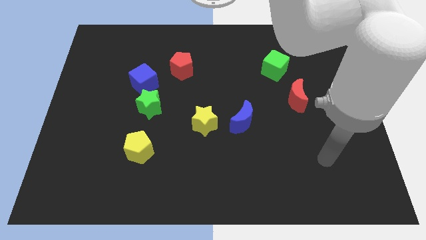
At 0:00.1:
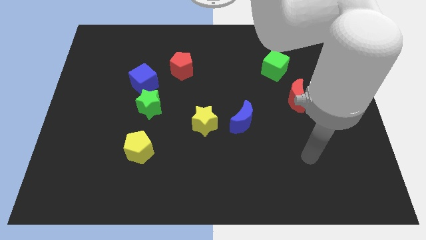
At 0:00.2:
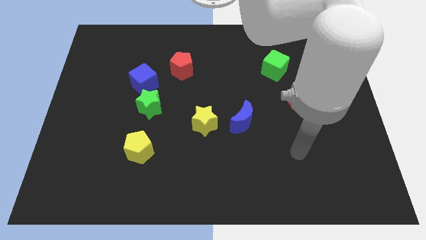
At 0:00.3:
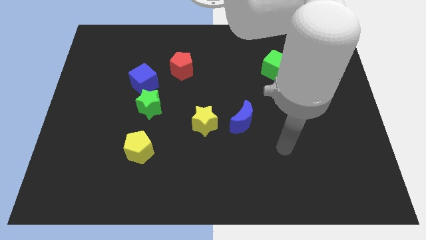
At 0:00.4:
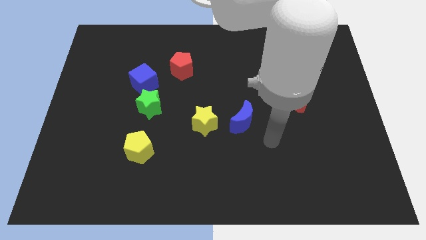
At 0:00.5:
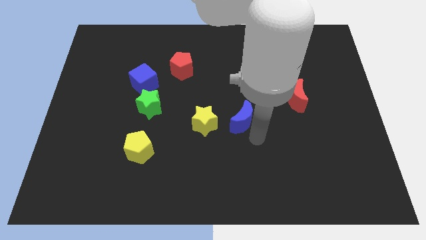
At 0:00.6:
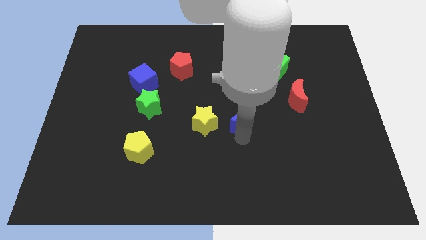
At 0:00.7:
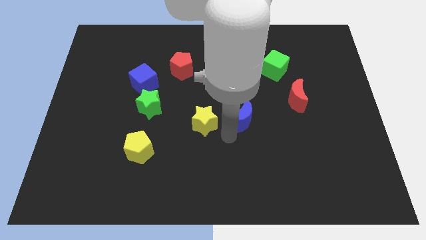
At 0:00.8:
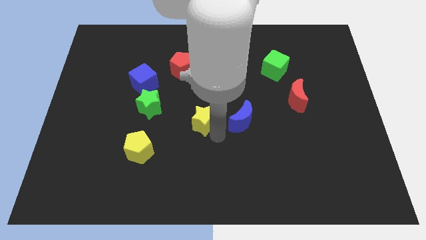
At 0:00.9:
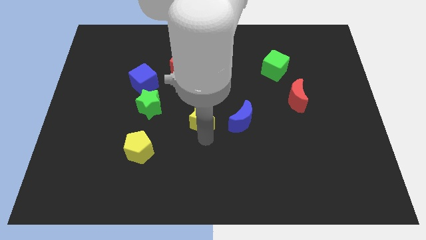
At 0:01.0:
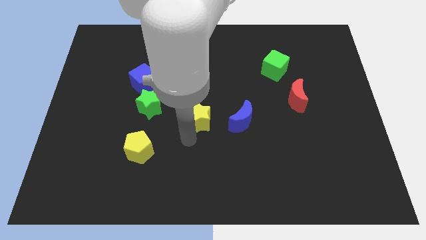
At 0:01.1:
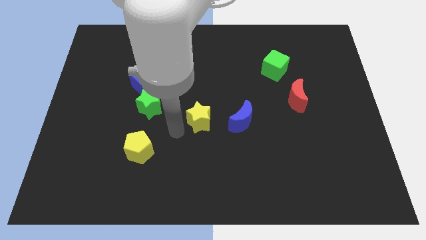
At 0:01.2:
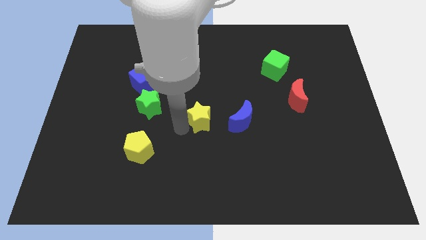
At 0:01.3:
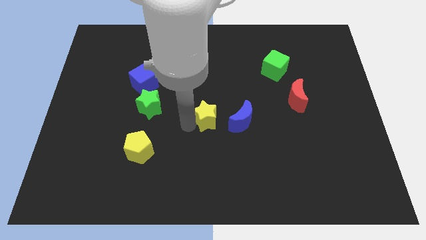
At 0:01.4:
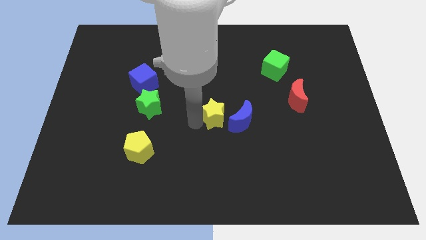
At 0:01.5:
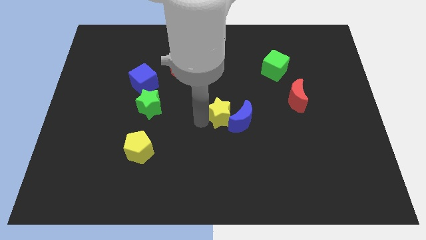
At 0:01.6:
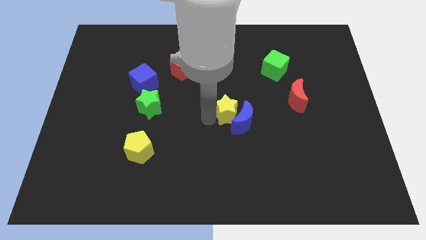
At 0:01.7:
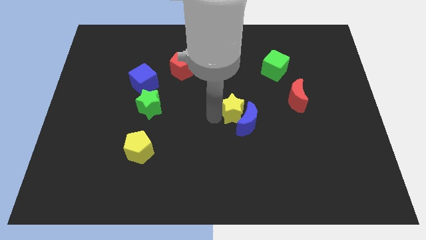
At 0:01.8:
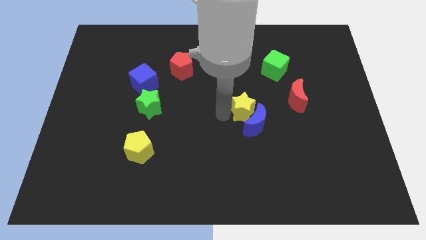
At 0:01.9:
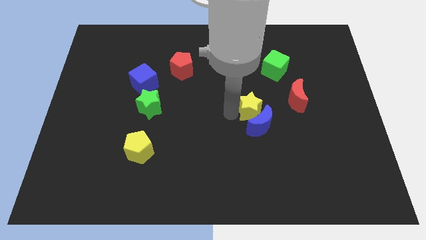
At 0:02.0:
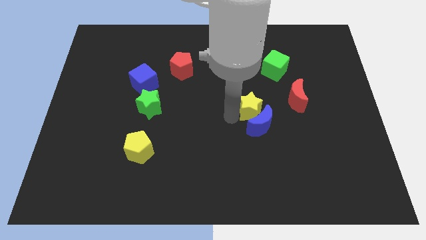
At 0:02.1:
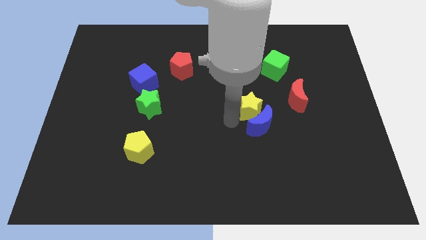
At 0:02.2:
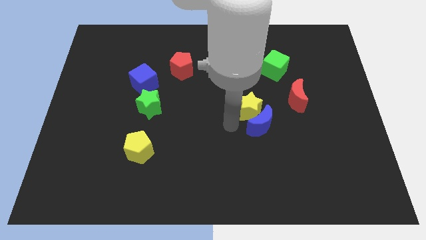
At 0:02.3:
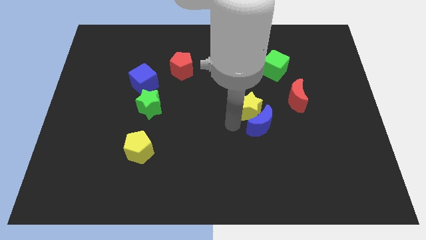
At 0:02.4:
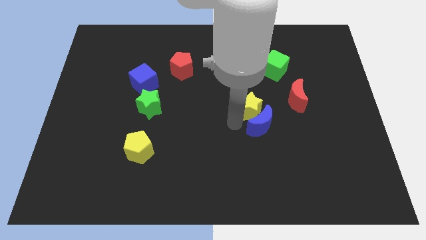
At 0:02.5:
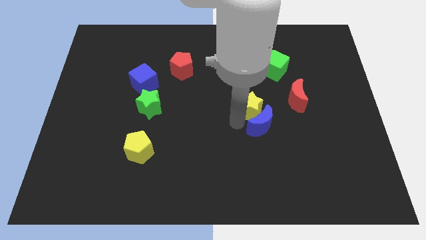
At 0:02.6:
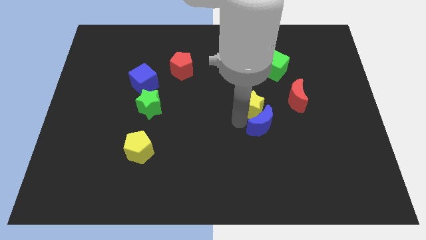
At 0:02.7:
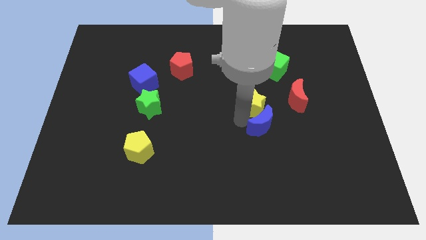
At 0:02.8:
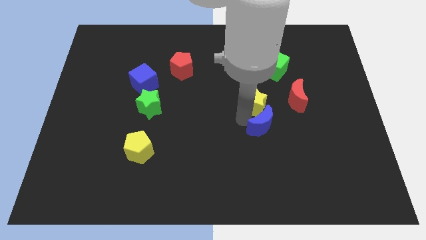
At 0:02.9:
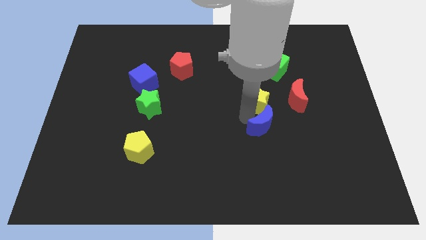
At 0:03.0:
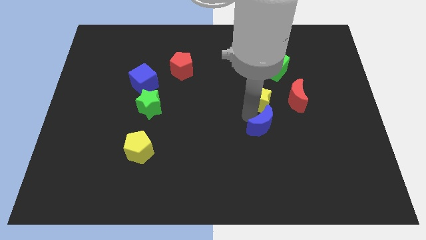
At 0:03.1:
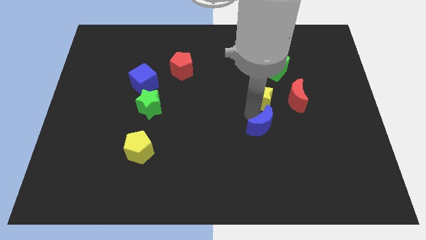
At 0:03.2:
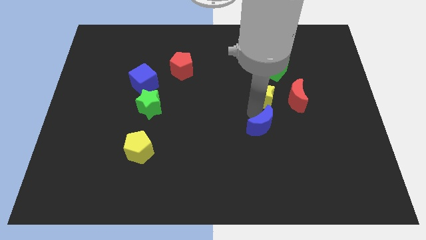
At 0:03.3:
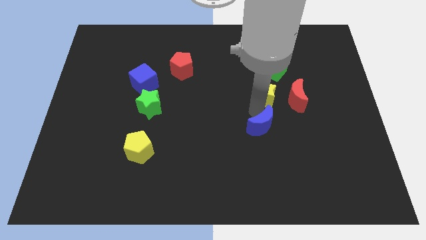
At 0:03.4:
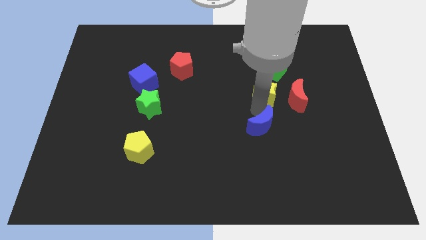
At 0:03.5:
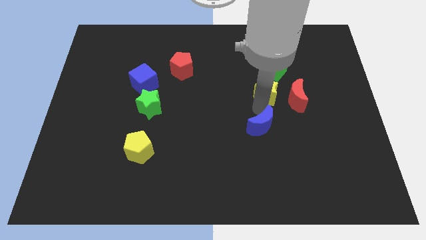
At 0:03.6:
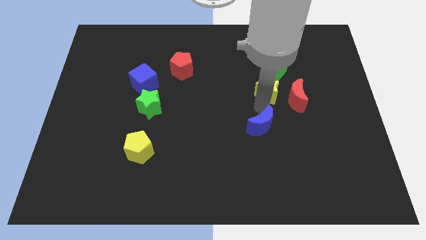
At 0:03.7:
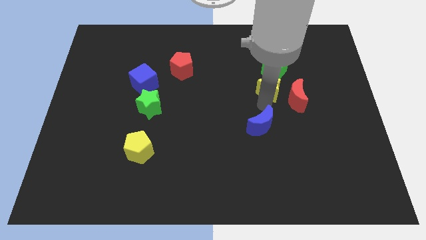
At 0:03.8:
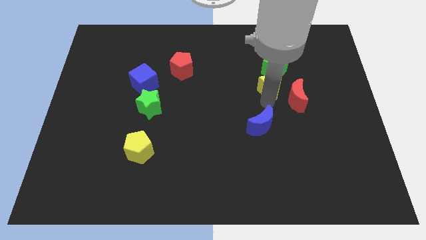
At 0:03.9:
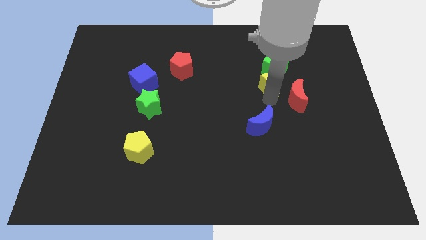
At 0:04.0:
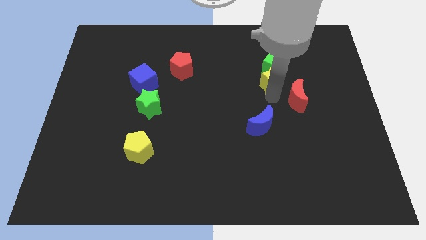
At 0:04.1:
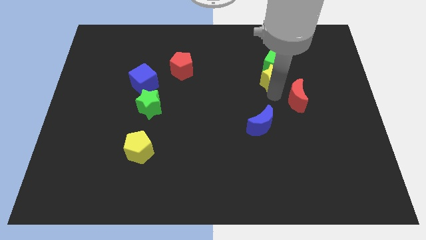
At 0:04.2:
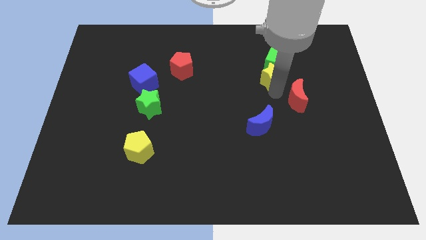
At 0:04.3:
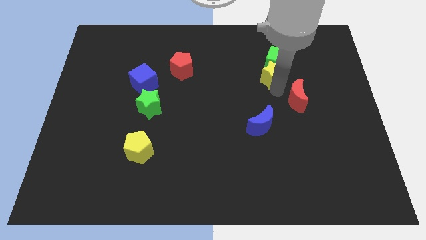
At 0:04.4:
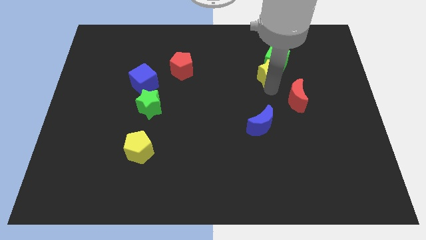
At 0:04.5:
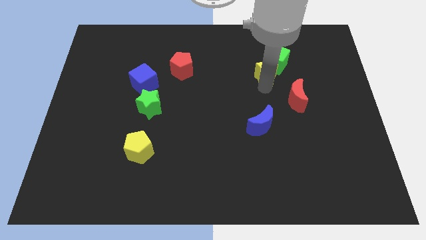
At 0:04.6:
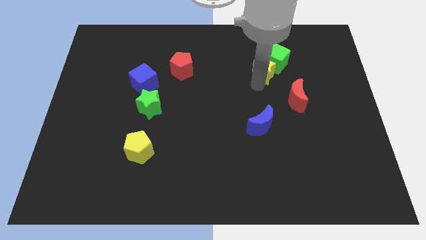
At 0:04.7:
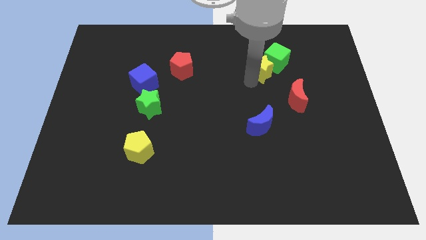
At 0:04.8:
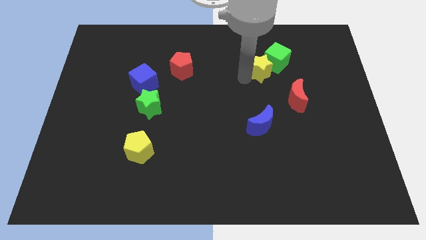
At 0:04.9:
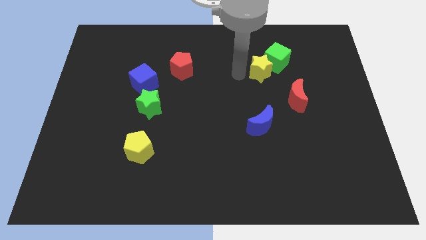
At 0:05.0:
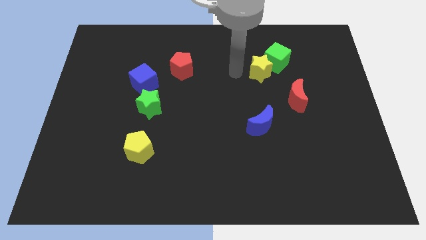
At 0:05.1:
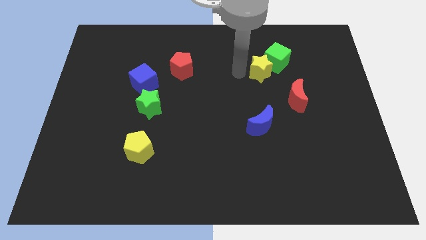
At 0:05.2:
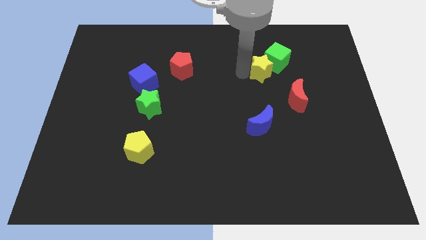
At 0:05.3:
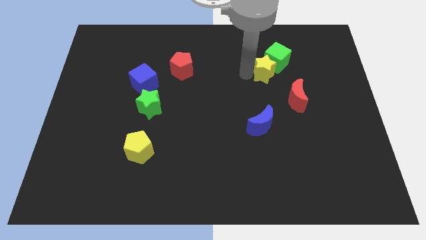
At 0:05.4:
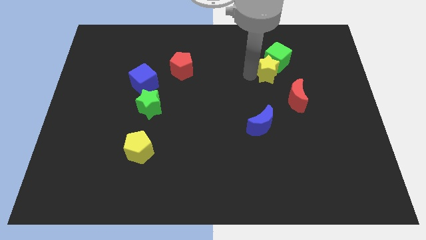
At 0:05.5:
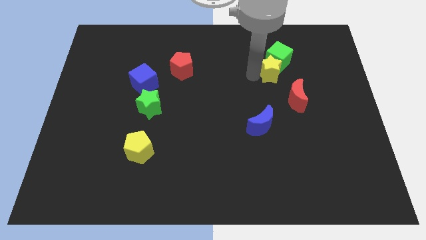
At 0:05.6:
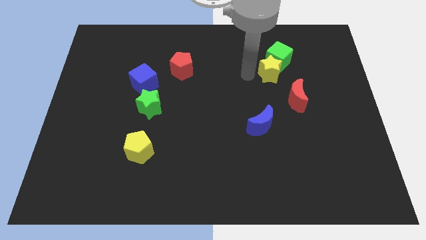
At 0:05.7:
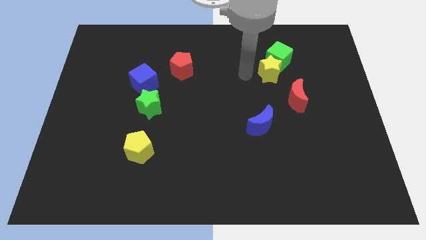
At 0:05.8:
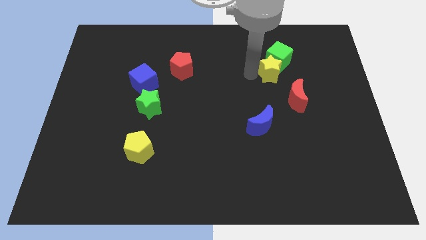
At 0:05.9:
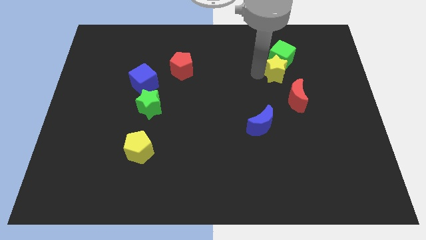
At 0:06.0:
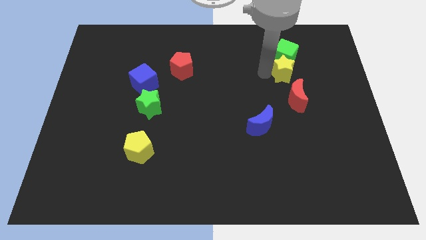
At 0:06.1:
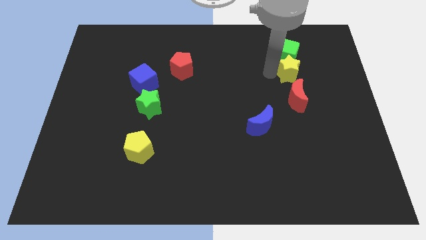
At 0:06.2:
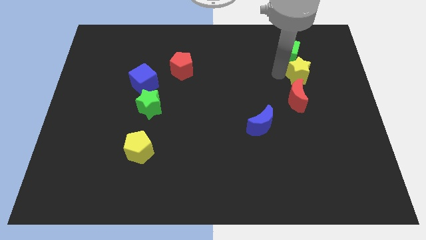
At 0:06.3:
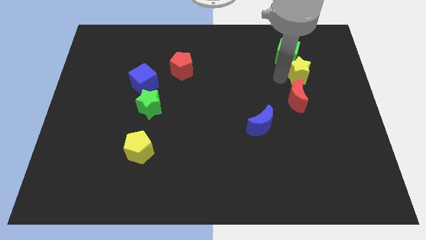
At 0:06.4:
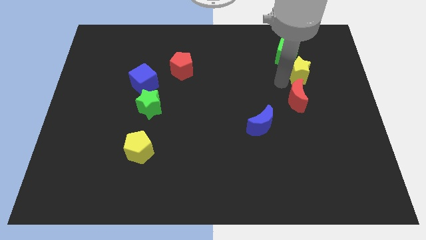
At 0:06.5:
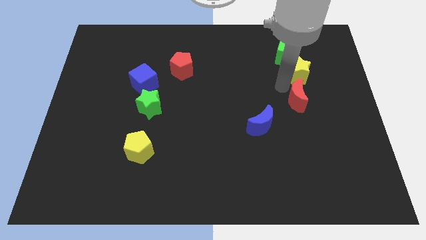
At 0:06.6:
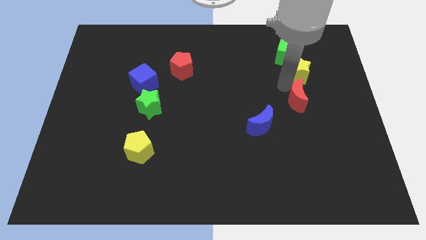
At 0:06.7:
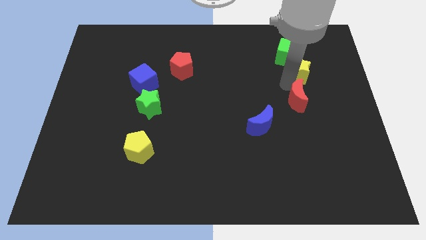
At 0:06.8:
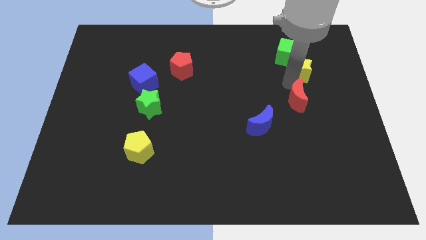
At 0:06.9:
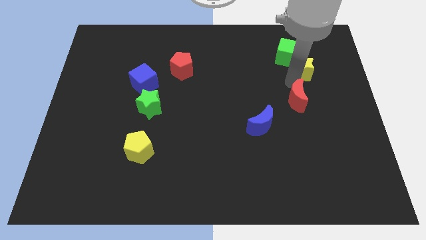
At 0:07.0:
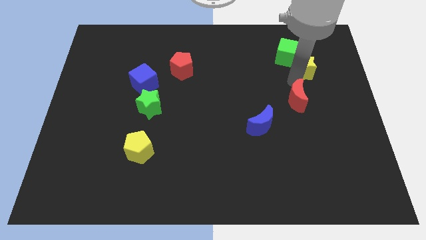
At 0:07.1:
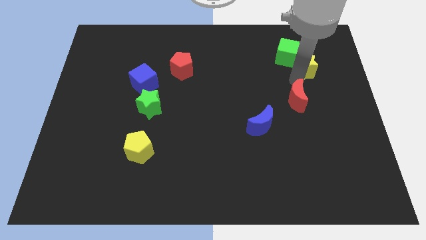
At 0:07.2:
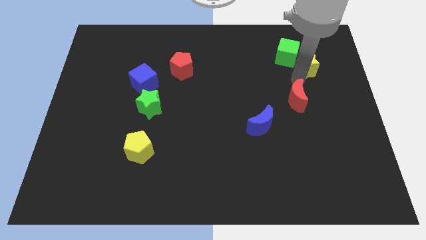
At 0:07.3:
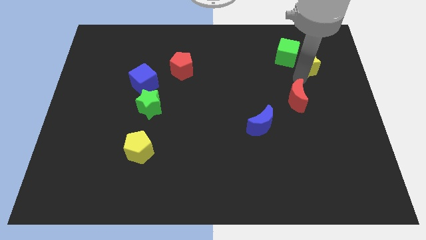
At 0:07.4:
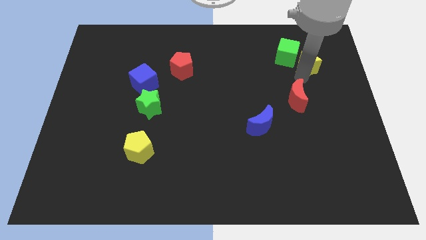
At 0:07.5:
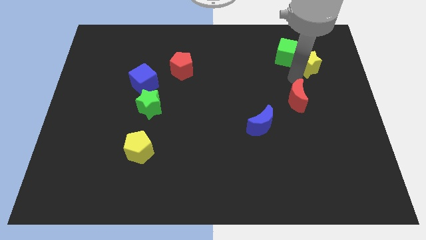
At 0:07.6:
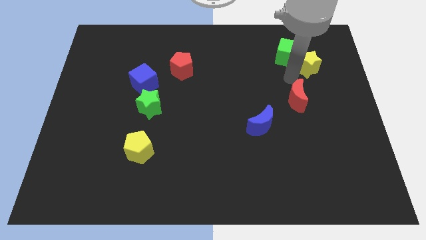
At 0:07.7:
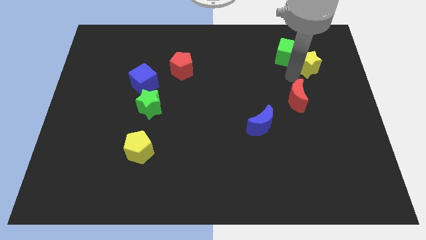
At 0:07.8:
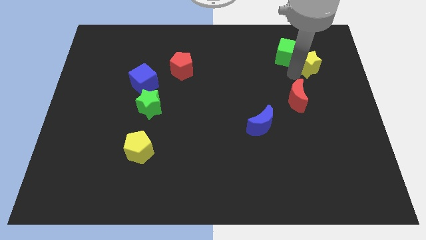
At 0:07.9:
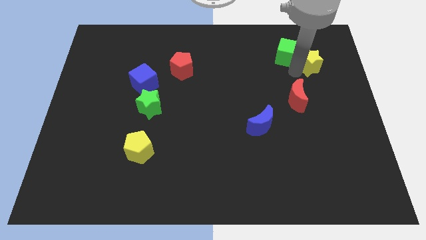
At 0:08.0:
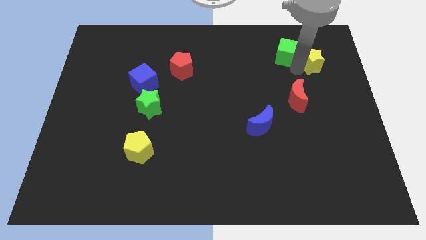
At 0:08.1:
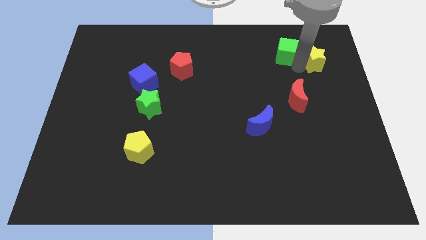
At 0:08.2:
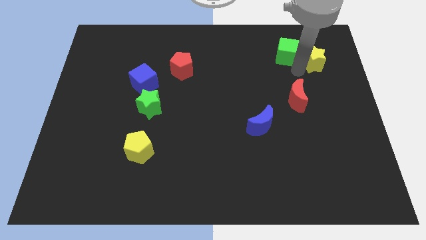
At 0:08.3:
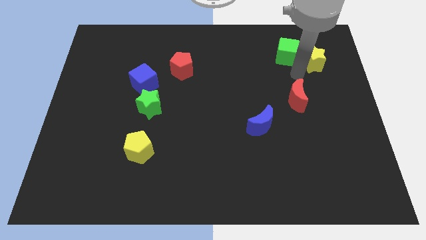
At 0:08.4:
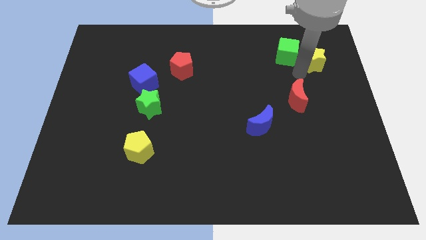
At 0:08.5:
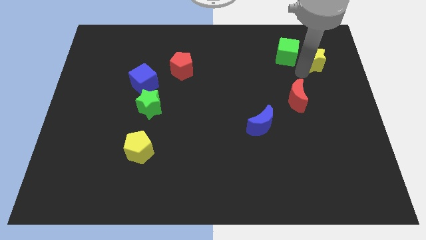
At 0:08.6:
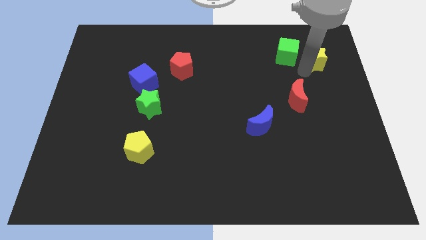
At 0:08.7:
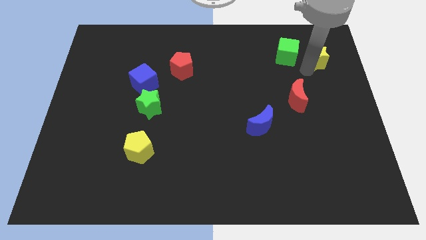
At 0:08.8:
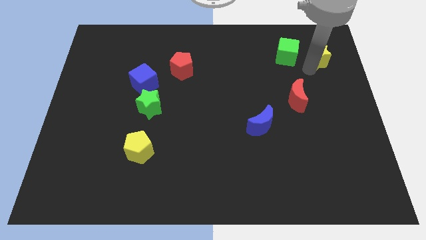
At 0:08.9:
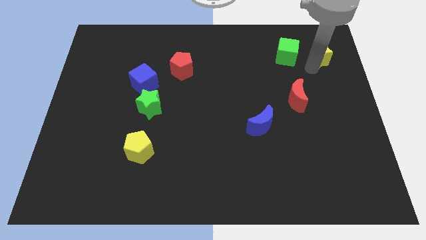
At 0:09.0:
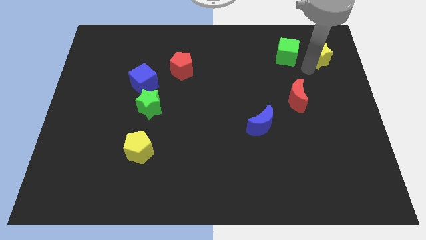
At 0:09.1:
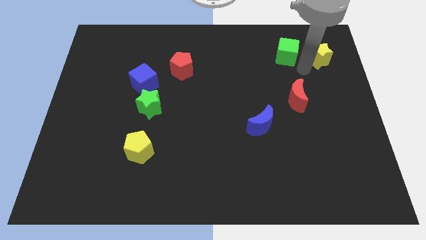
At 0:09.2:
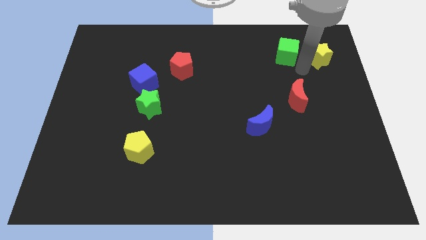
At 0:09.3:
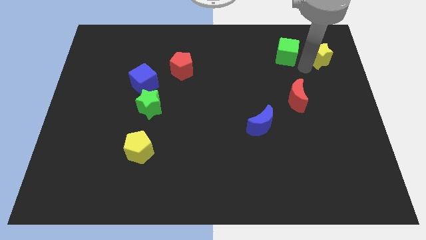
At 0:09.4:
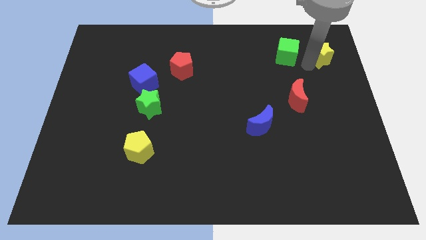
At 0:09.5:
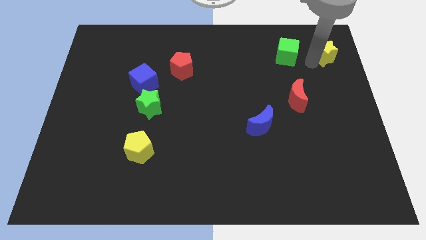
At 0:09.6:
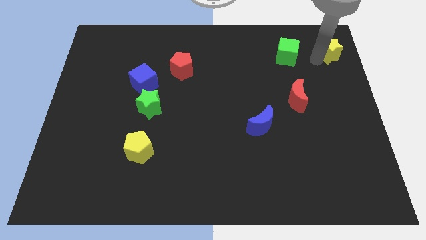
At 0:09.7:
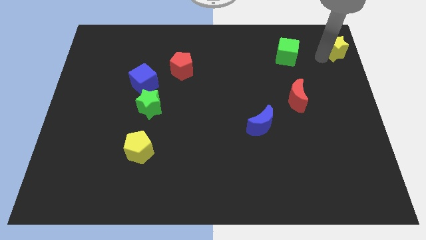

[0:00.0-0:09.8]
put the yellow star to the top right corner
